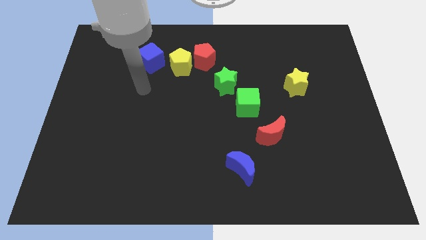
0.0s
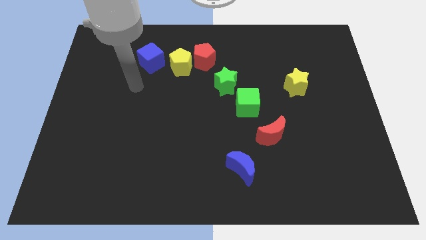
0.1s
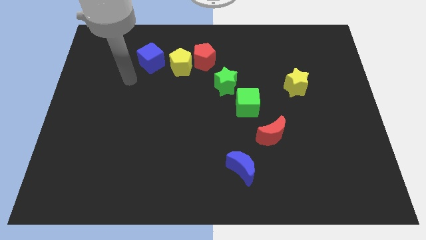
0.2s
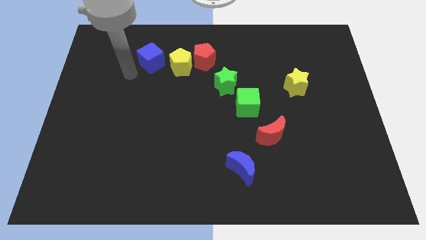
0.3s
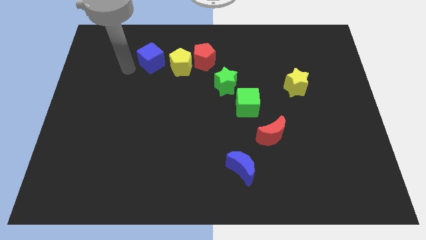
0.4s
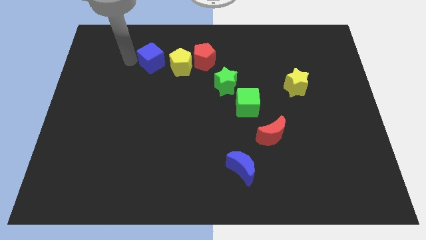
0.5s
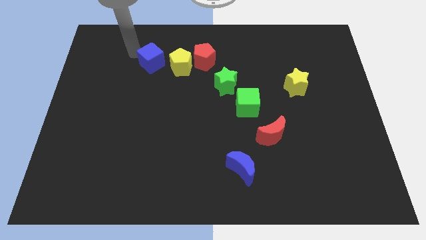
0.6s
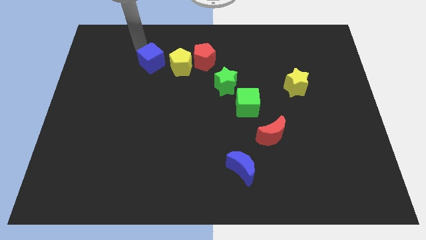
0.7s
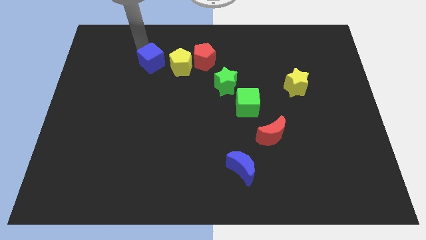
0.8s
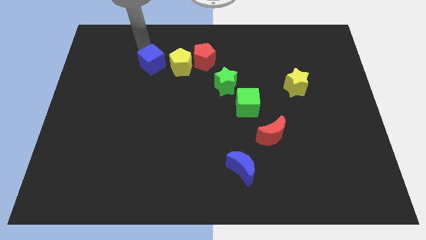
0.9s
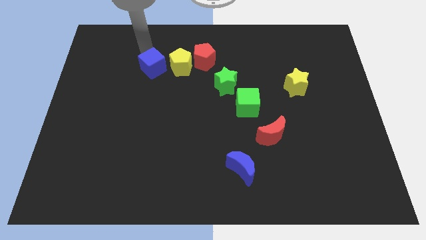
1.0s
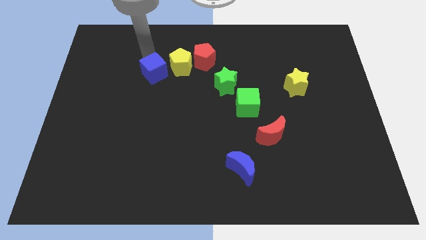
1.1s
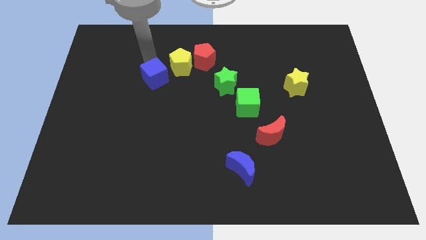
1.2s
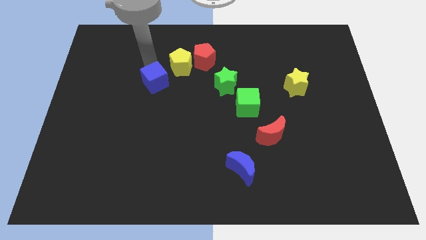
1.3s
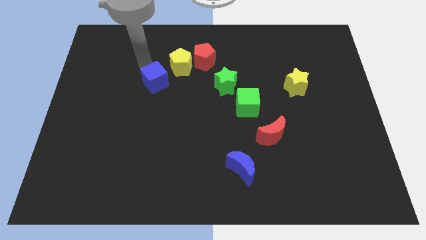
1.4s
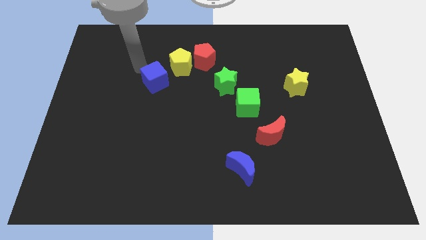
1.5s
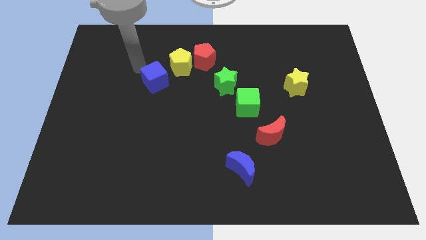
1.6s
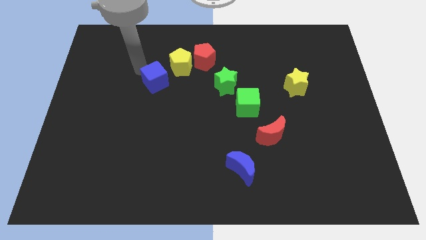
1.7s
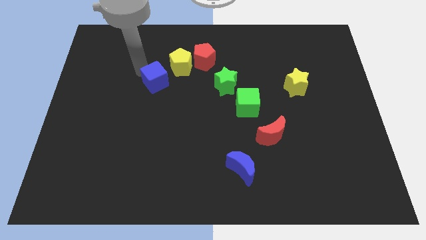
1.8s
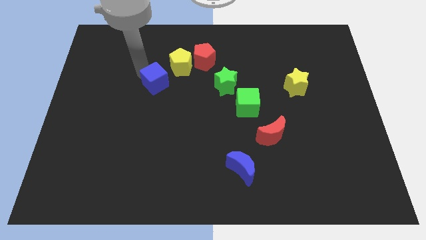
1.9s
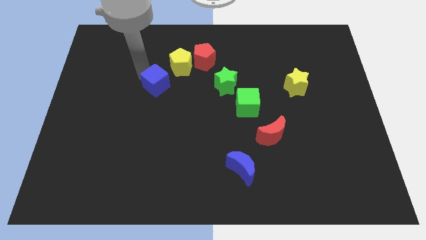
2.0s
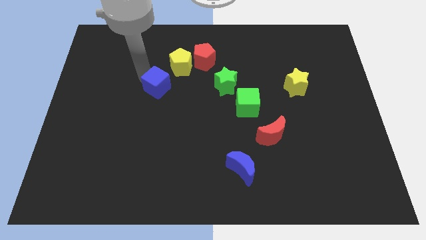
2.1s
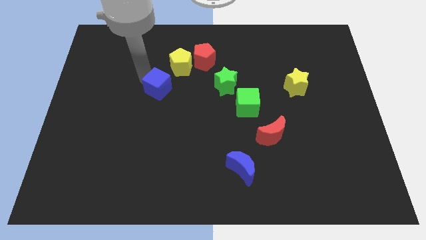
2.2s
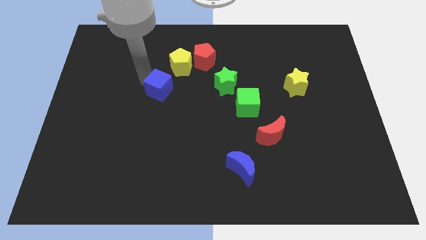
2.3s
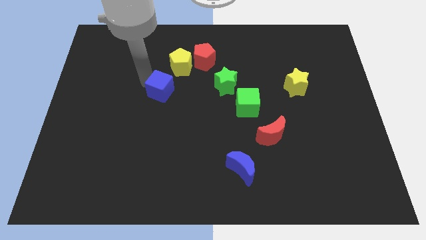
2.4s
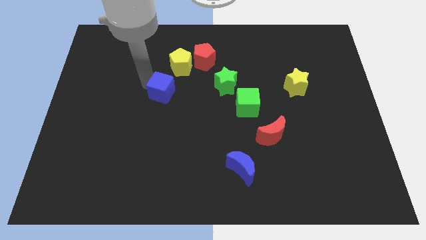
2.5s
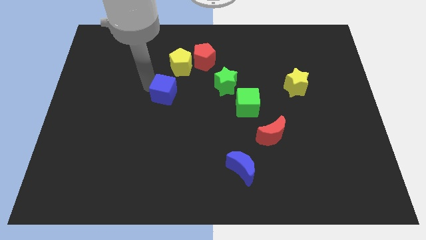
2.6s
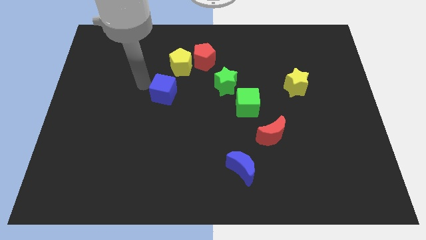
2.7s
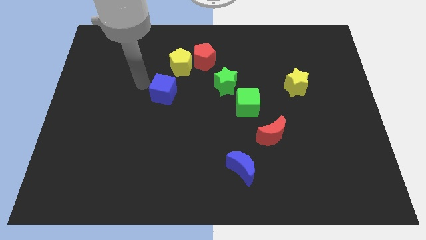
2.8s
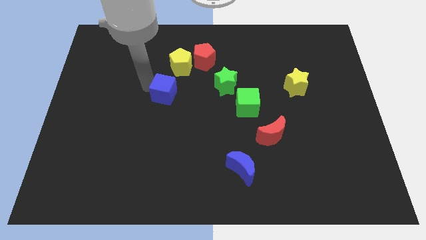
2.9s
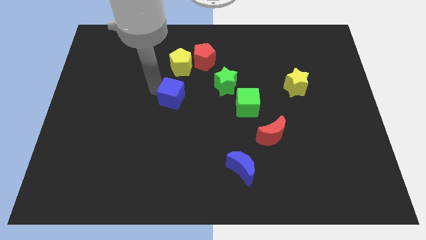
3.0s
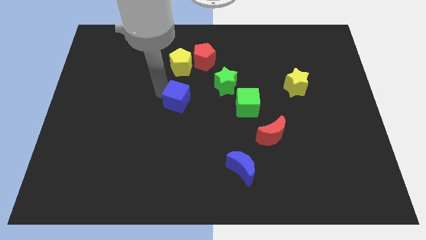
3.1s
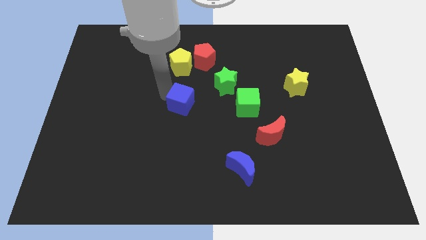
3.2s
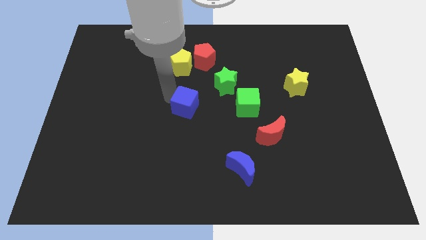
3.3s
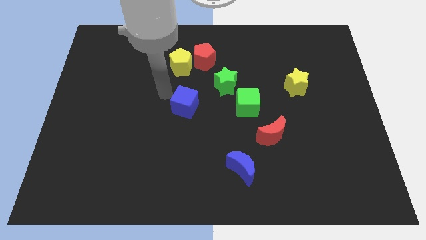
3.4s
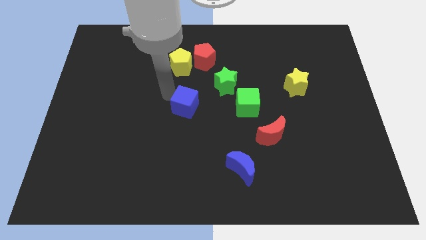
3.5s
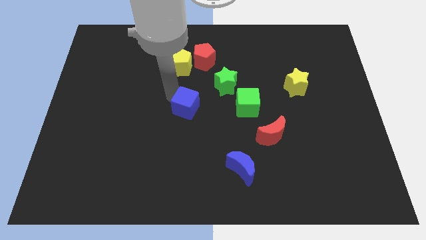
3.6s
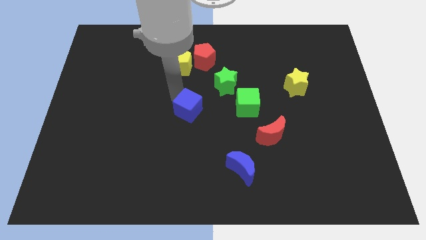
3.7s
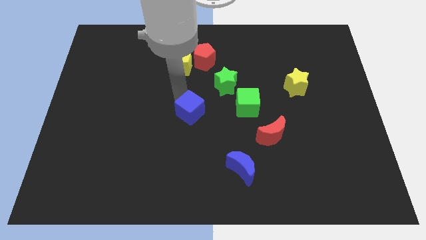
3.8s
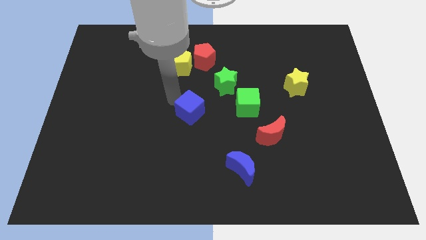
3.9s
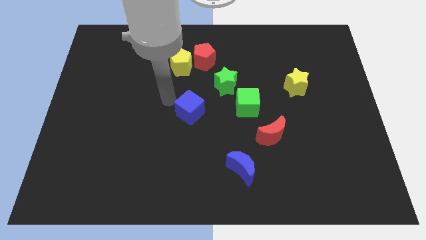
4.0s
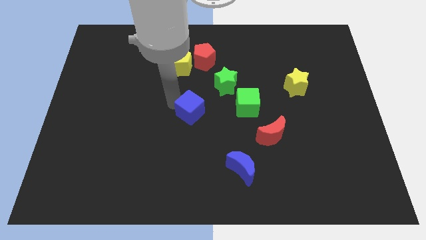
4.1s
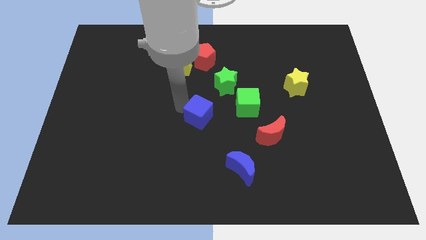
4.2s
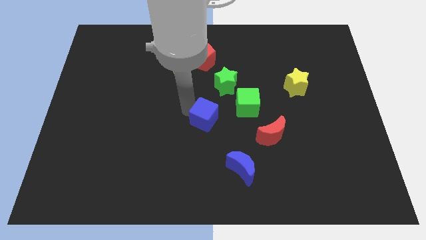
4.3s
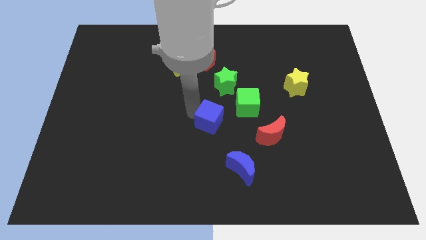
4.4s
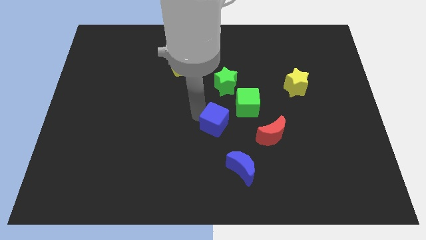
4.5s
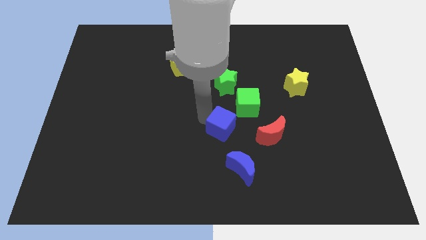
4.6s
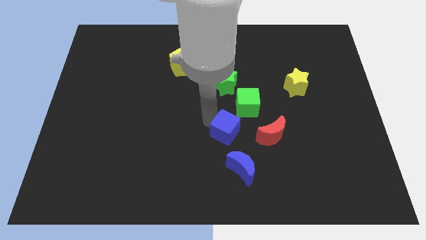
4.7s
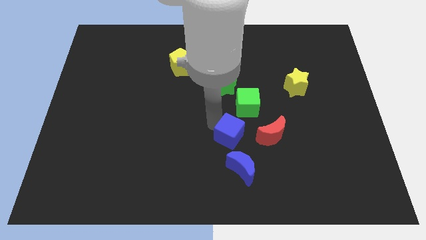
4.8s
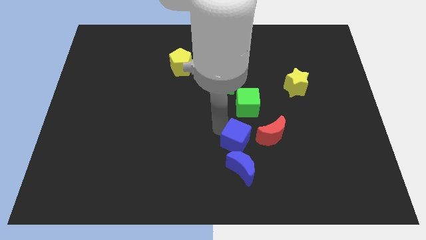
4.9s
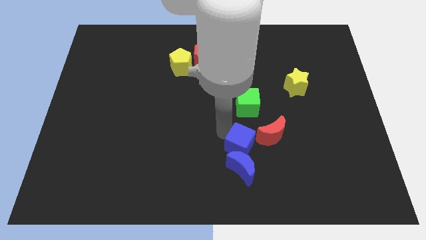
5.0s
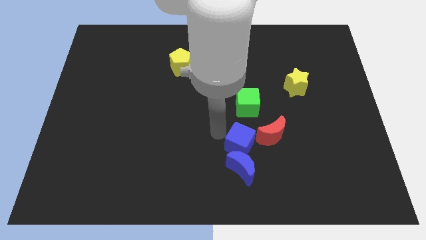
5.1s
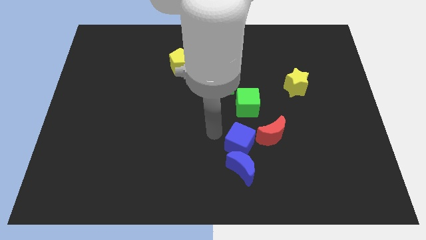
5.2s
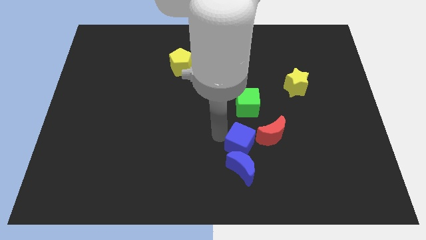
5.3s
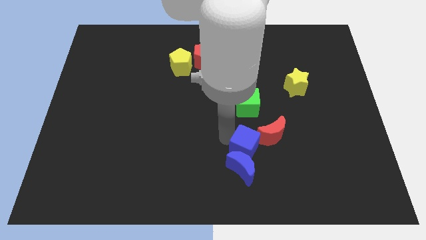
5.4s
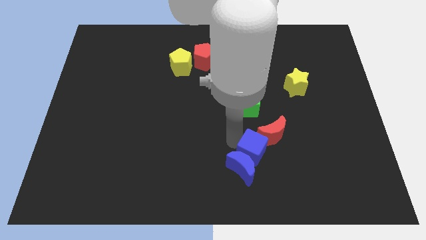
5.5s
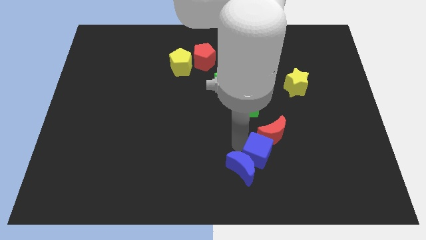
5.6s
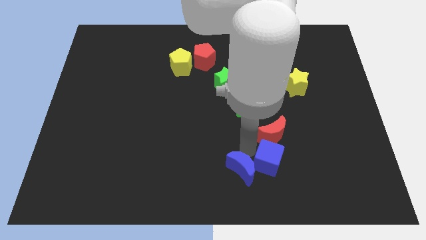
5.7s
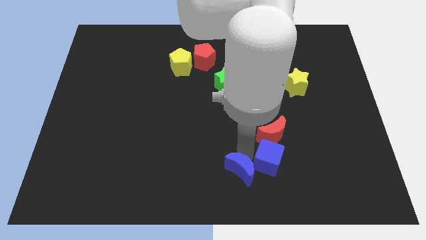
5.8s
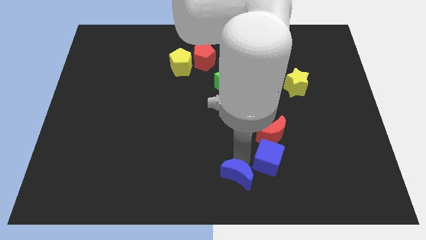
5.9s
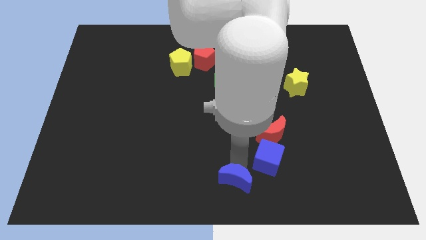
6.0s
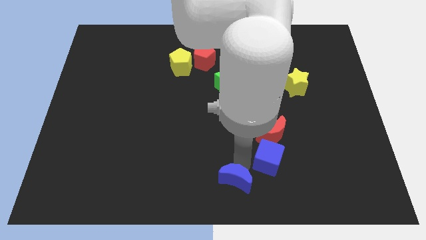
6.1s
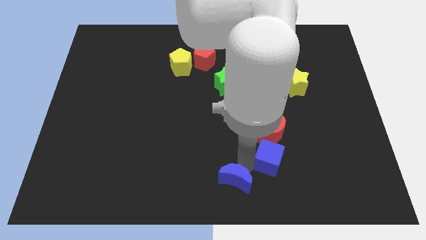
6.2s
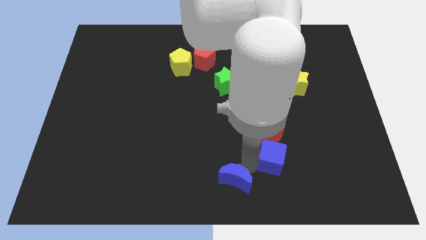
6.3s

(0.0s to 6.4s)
put the blue cube to the bottom right side of the red moon
